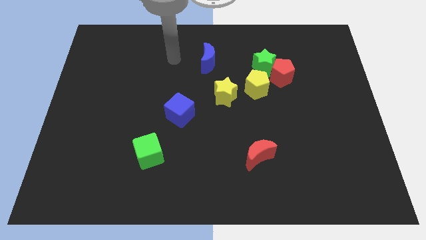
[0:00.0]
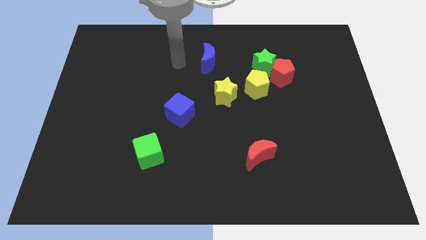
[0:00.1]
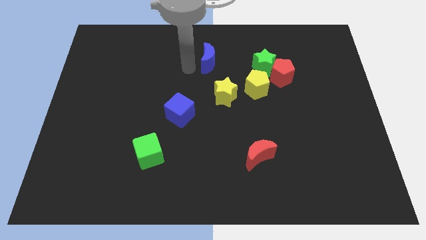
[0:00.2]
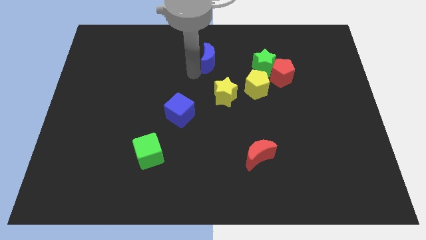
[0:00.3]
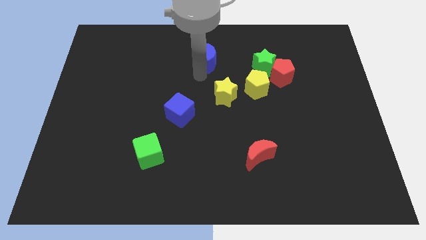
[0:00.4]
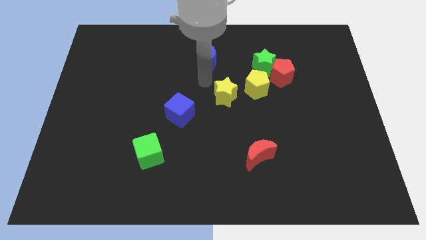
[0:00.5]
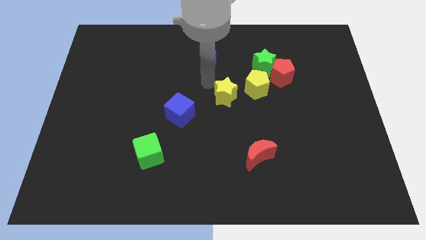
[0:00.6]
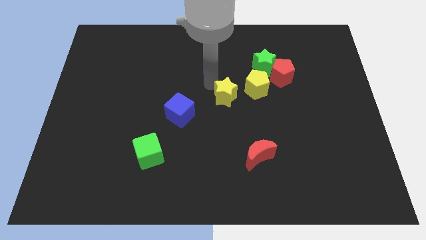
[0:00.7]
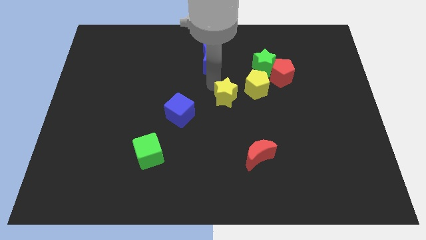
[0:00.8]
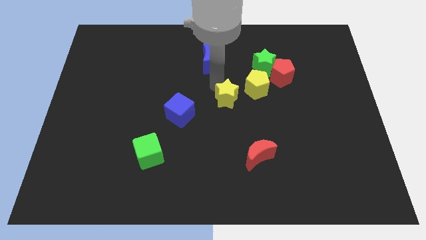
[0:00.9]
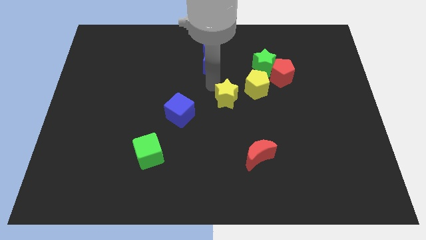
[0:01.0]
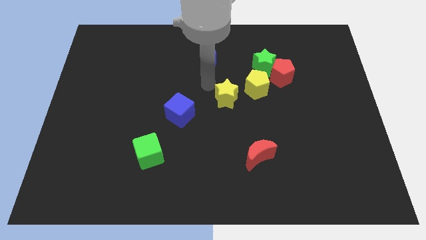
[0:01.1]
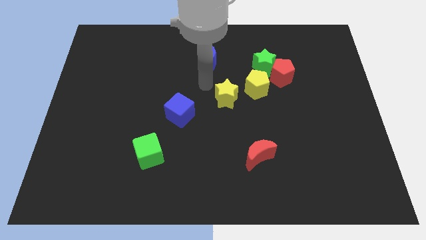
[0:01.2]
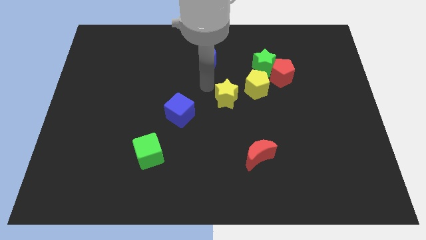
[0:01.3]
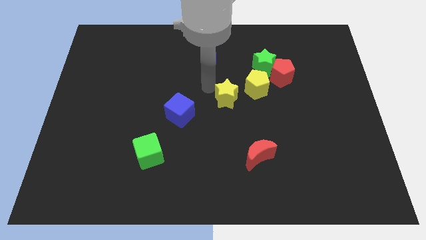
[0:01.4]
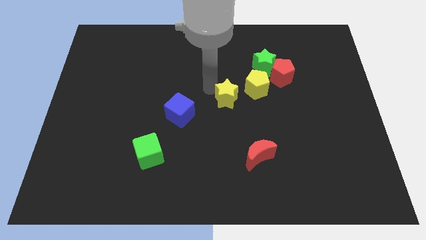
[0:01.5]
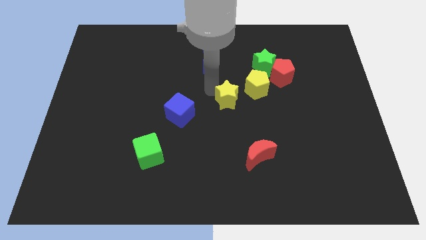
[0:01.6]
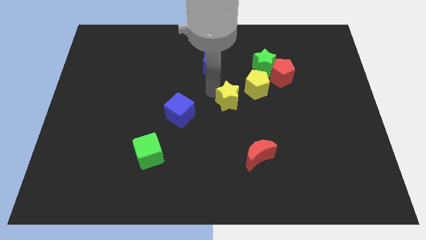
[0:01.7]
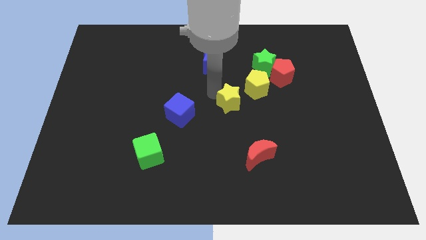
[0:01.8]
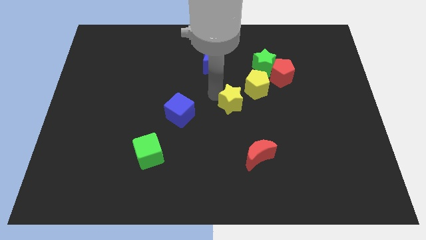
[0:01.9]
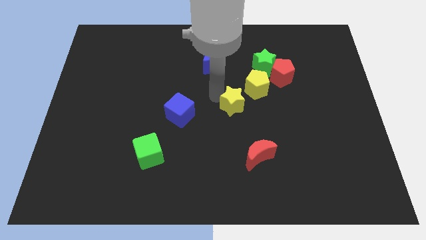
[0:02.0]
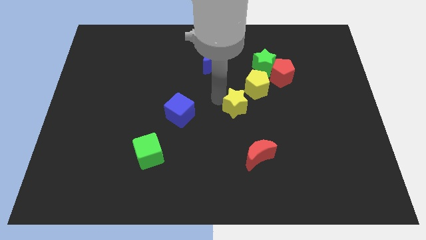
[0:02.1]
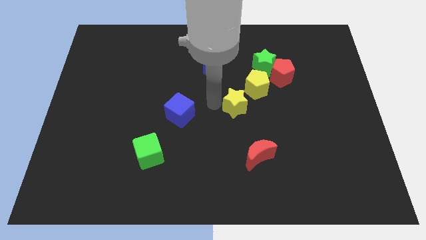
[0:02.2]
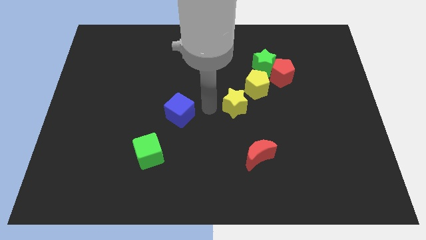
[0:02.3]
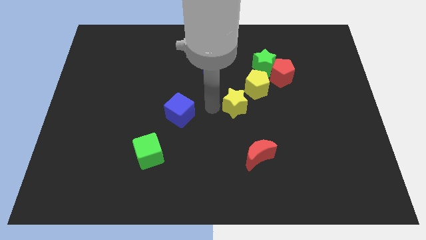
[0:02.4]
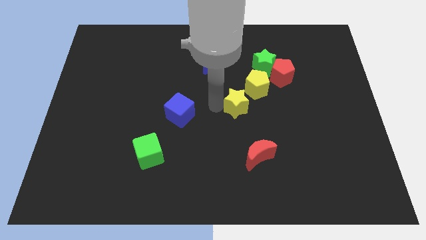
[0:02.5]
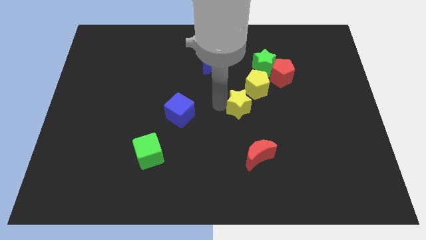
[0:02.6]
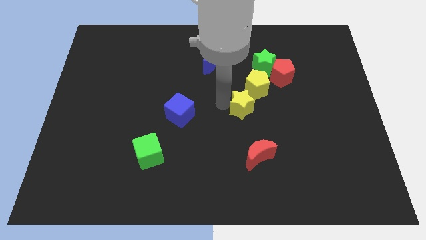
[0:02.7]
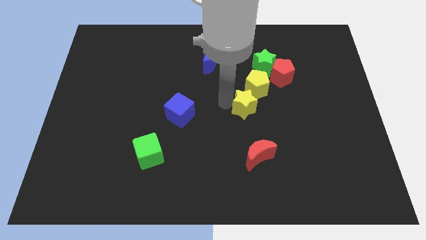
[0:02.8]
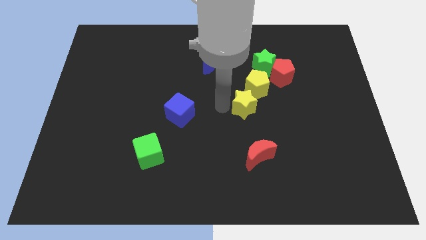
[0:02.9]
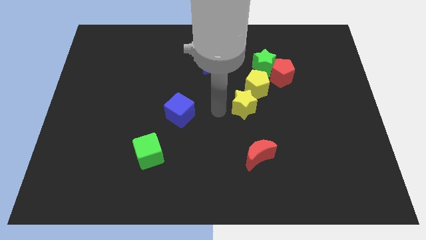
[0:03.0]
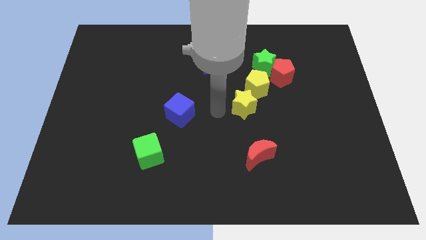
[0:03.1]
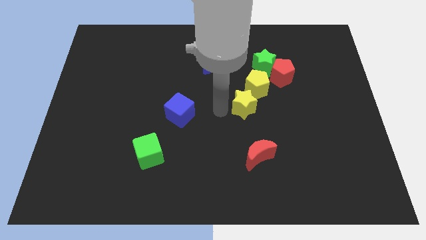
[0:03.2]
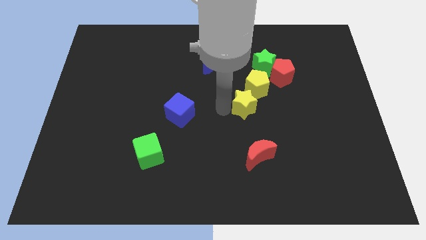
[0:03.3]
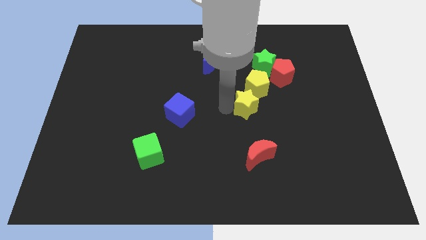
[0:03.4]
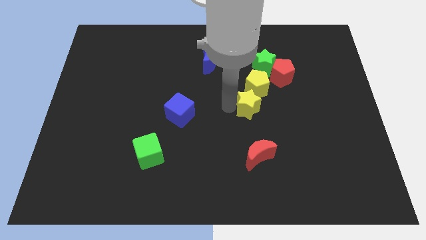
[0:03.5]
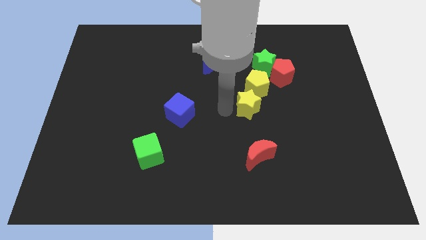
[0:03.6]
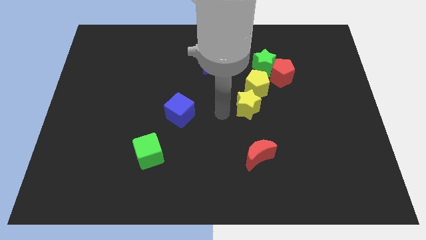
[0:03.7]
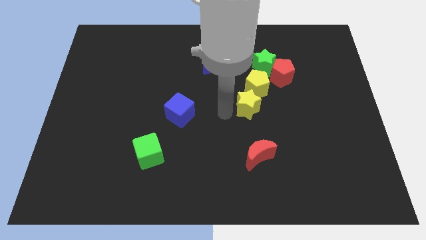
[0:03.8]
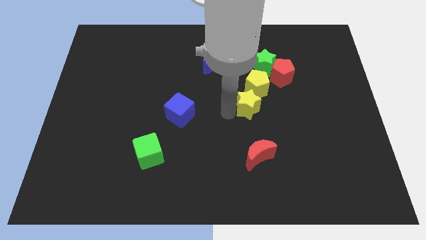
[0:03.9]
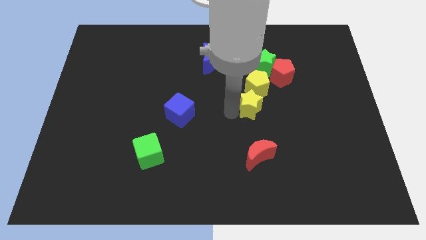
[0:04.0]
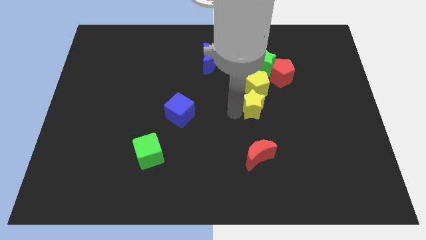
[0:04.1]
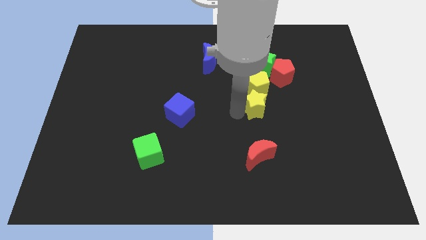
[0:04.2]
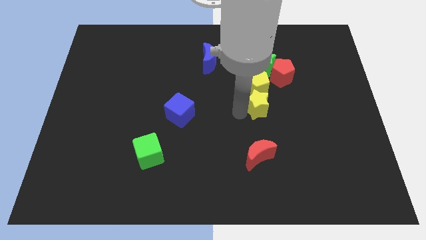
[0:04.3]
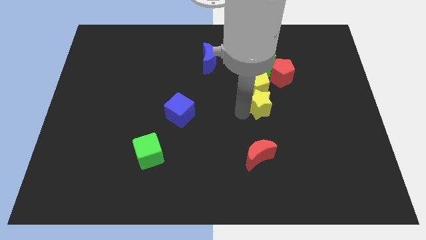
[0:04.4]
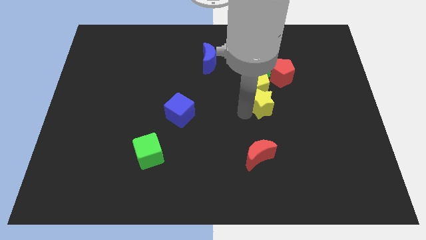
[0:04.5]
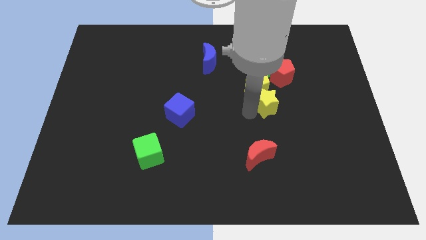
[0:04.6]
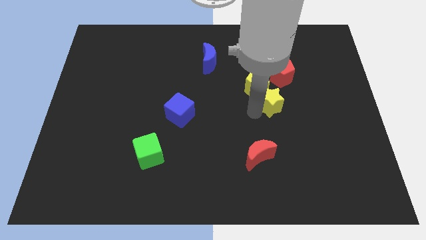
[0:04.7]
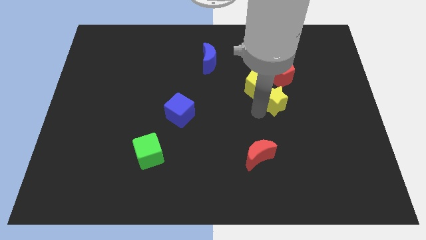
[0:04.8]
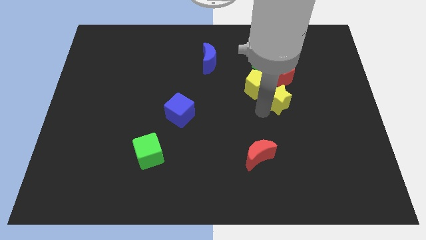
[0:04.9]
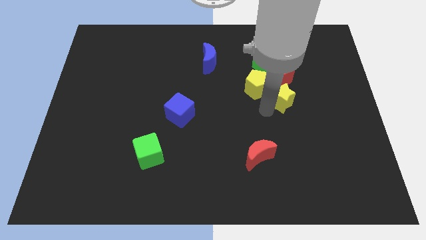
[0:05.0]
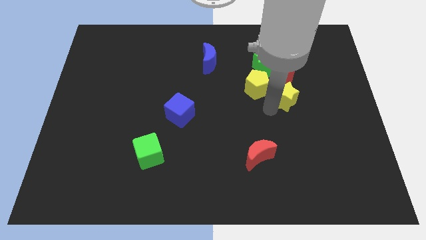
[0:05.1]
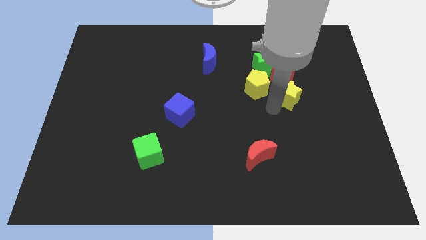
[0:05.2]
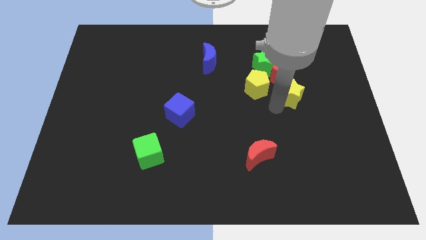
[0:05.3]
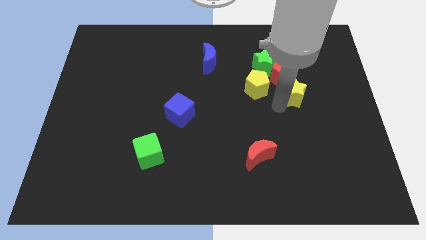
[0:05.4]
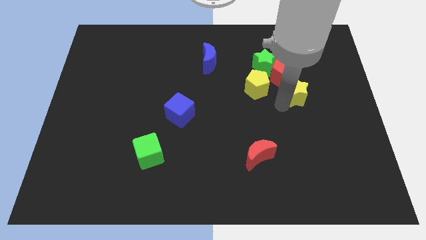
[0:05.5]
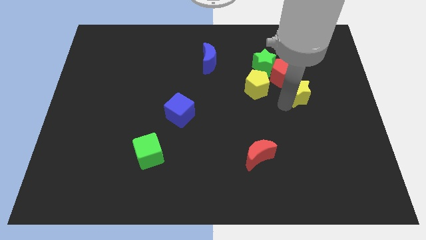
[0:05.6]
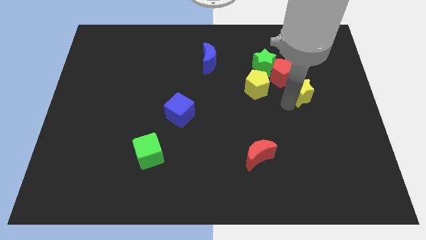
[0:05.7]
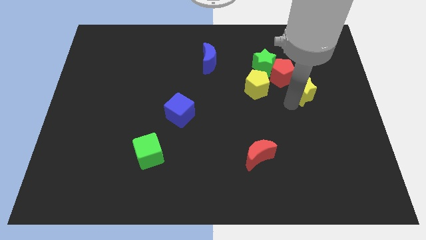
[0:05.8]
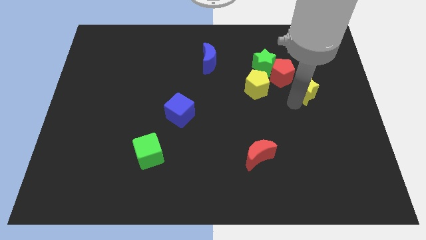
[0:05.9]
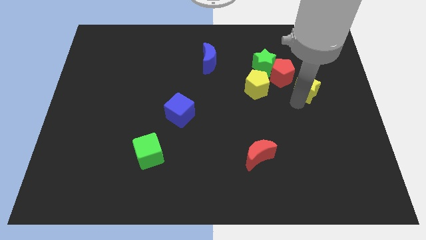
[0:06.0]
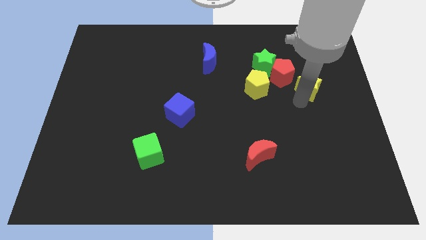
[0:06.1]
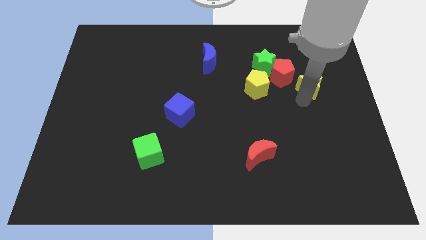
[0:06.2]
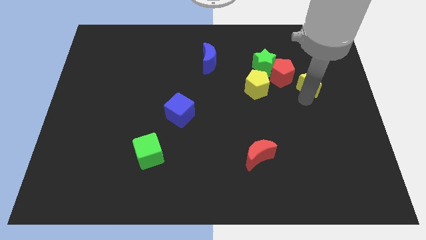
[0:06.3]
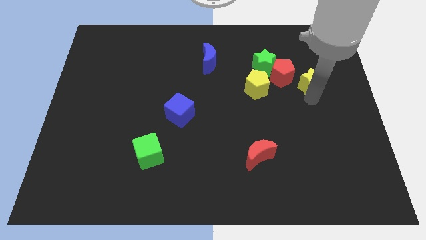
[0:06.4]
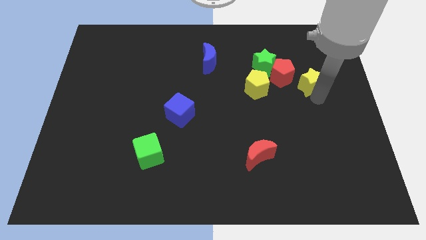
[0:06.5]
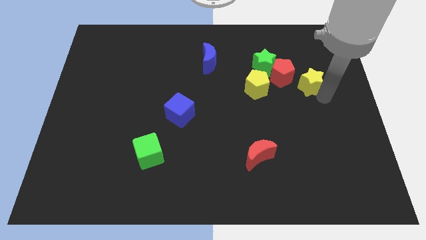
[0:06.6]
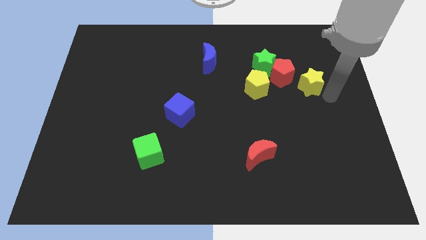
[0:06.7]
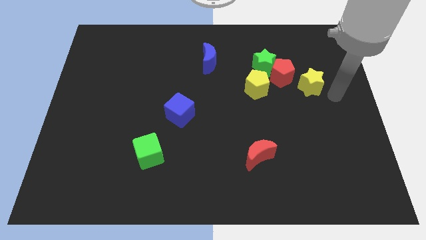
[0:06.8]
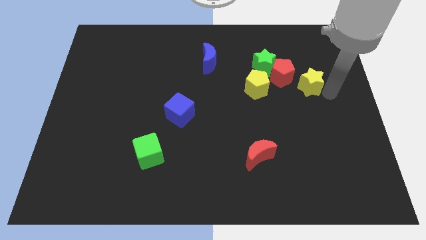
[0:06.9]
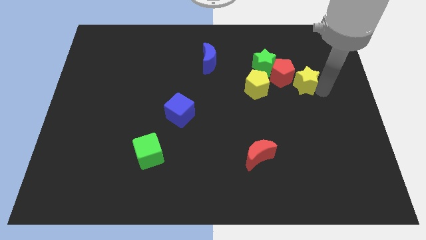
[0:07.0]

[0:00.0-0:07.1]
push the yellow star next to the red pentagon

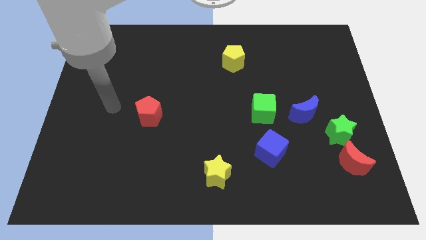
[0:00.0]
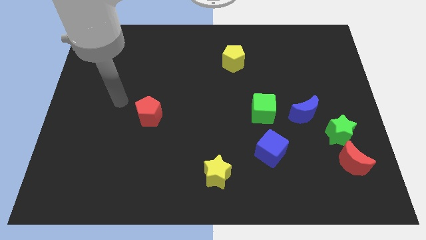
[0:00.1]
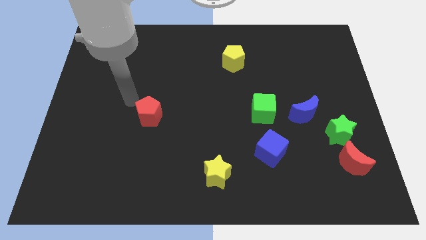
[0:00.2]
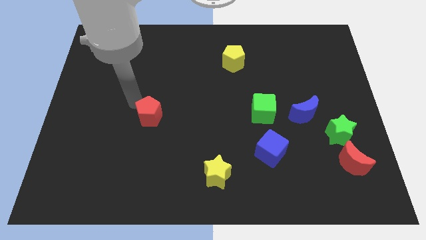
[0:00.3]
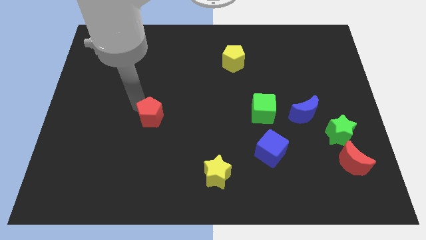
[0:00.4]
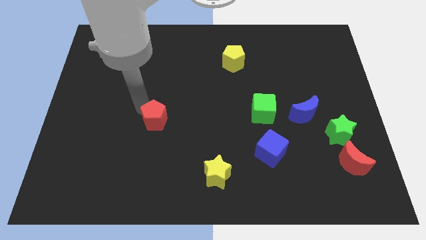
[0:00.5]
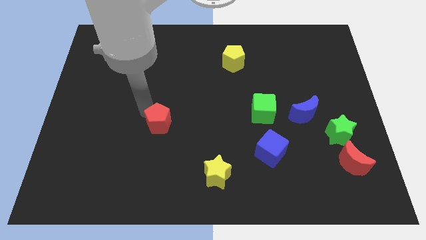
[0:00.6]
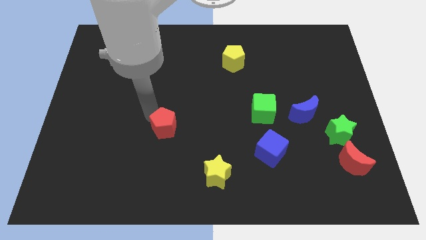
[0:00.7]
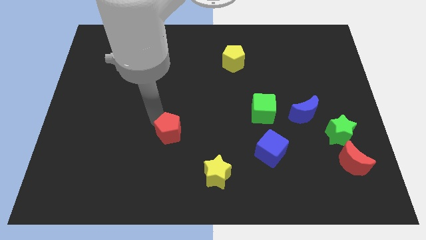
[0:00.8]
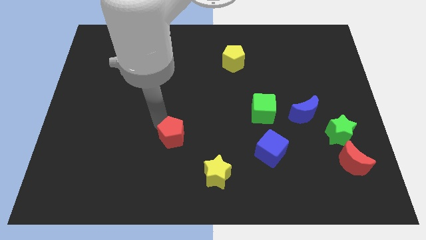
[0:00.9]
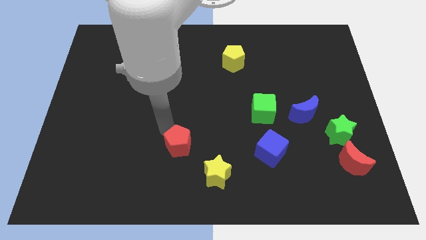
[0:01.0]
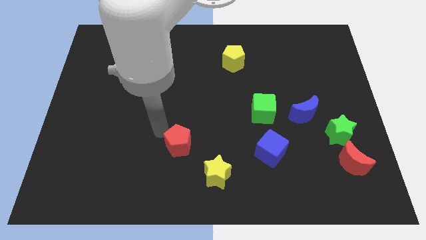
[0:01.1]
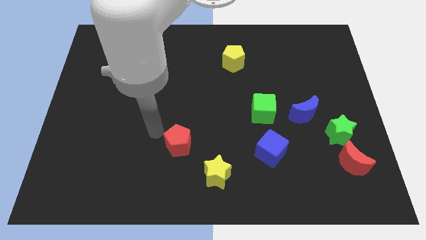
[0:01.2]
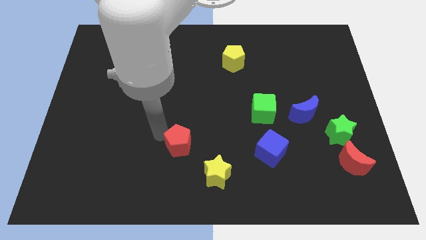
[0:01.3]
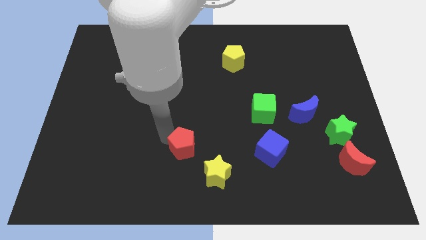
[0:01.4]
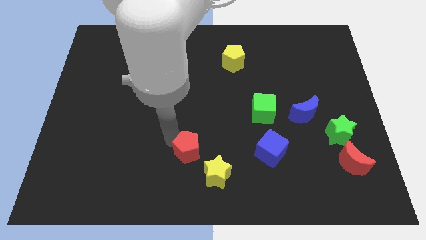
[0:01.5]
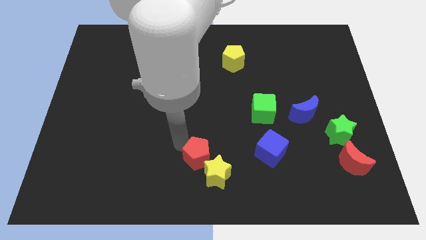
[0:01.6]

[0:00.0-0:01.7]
put the red pentagon next to the yellow star
